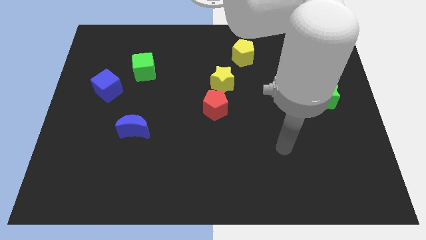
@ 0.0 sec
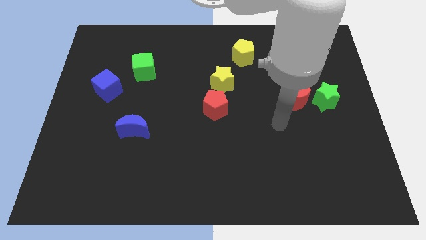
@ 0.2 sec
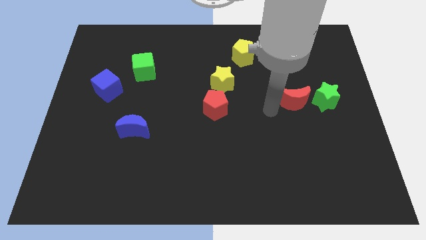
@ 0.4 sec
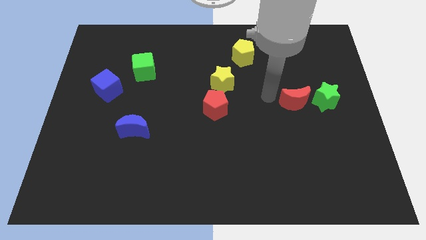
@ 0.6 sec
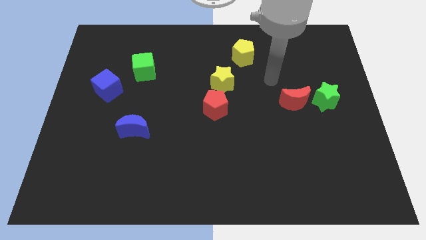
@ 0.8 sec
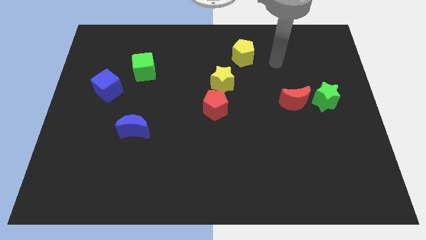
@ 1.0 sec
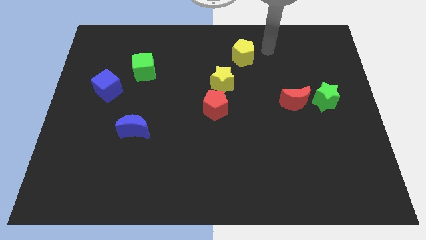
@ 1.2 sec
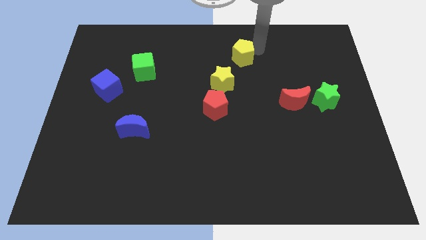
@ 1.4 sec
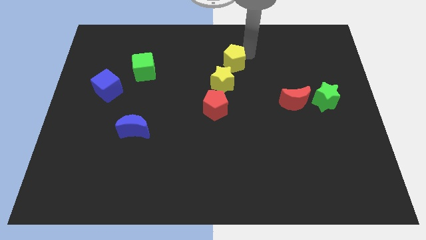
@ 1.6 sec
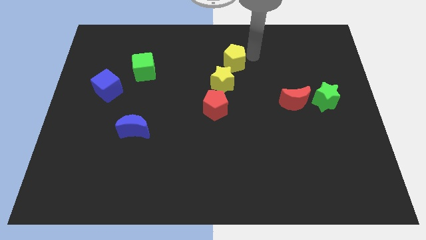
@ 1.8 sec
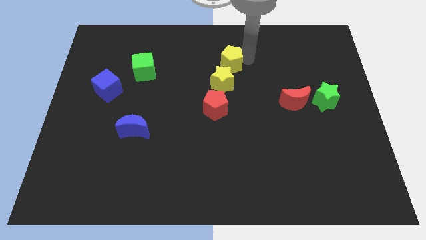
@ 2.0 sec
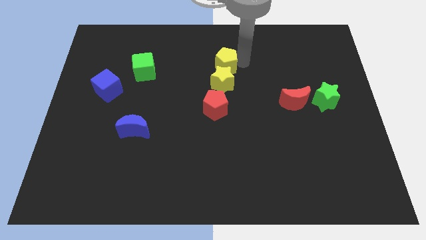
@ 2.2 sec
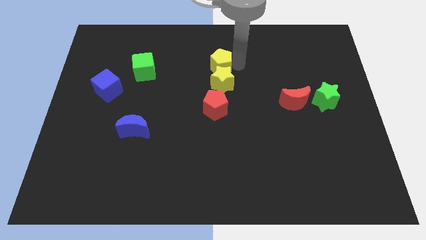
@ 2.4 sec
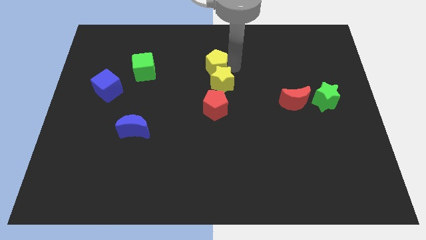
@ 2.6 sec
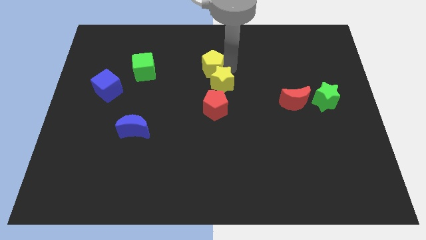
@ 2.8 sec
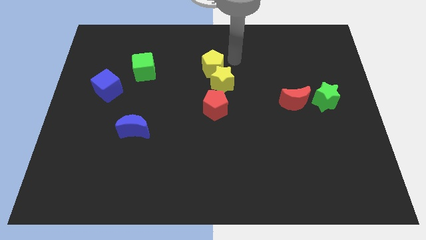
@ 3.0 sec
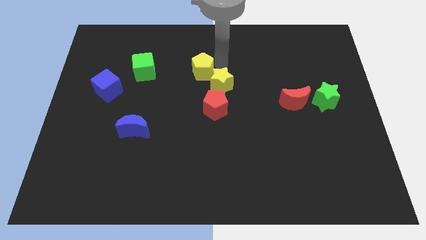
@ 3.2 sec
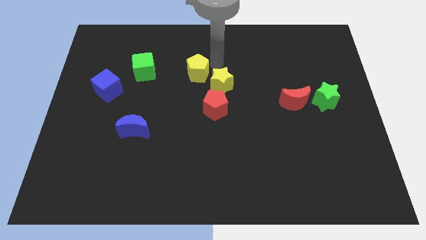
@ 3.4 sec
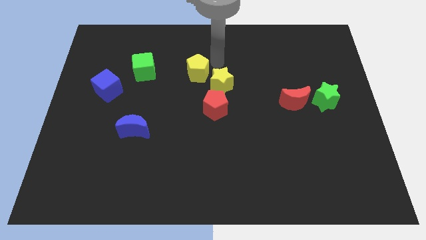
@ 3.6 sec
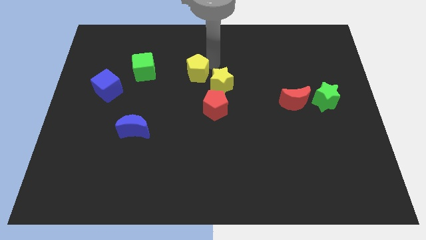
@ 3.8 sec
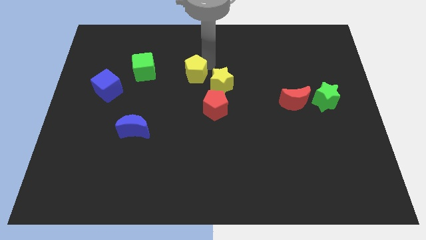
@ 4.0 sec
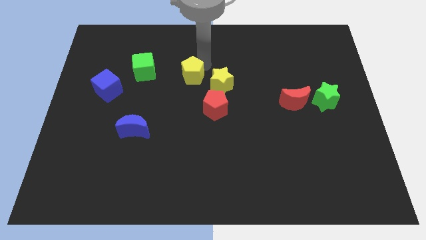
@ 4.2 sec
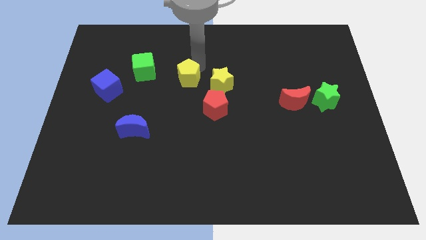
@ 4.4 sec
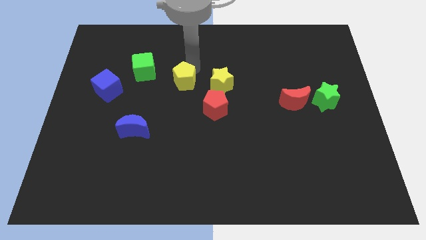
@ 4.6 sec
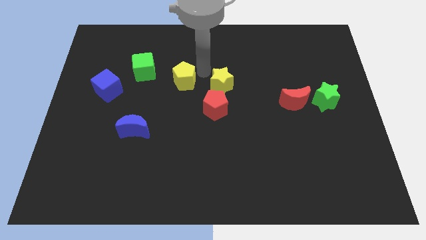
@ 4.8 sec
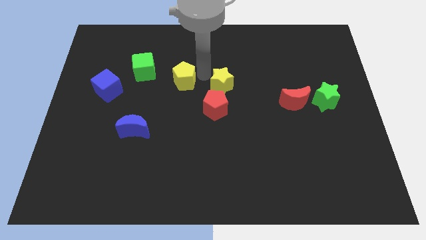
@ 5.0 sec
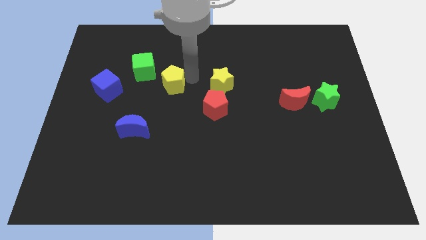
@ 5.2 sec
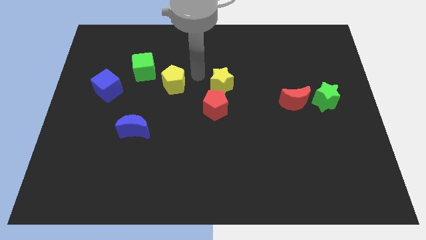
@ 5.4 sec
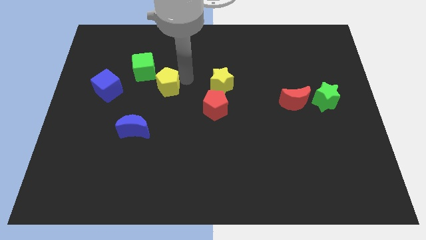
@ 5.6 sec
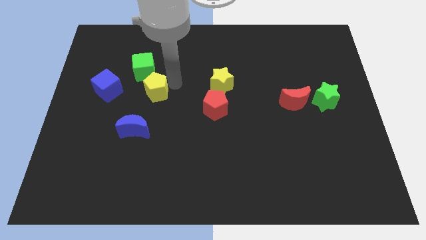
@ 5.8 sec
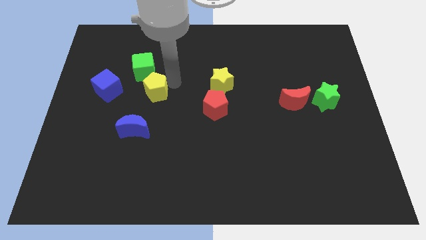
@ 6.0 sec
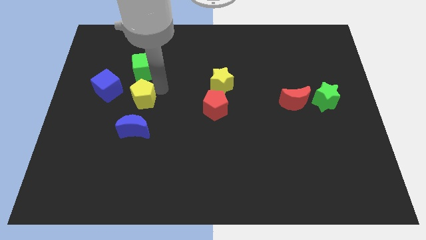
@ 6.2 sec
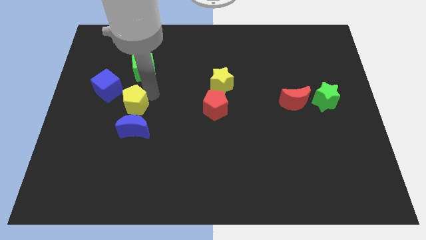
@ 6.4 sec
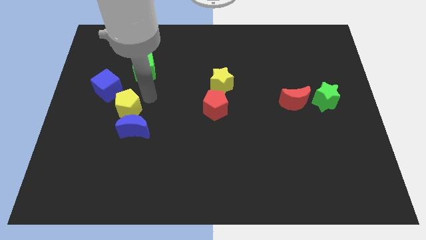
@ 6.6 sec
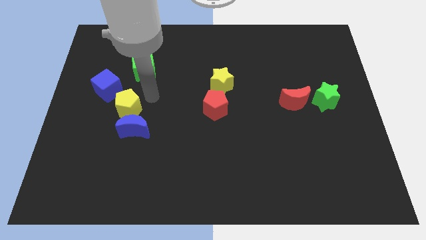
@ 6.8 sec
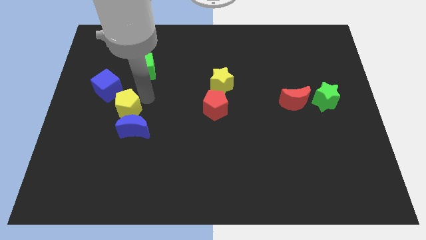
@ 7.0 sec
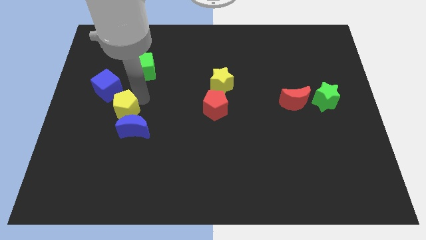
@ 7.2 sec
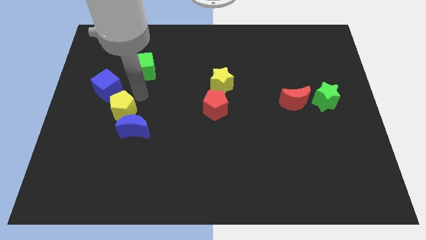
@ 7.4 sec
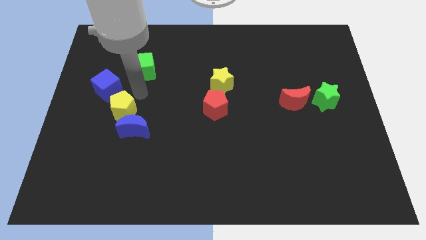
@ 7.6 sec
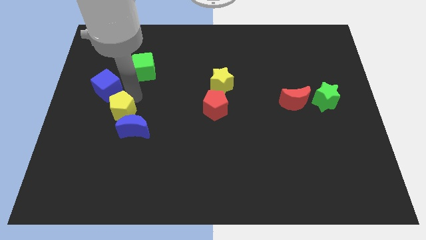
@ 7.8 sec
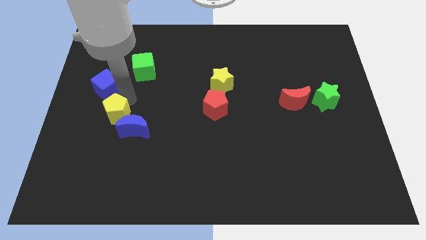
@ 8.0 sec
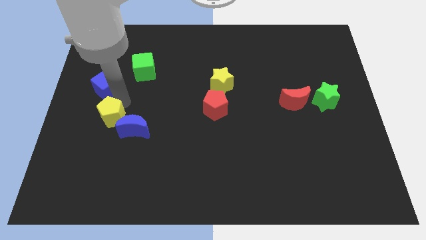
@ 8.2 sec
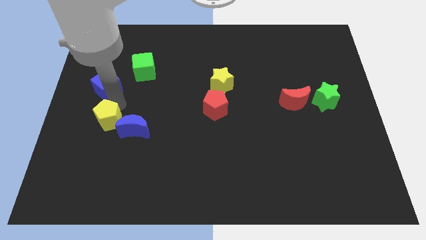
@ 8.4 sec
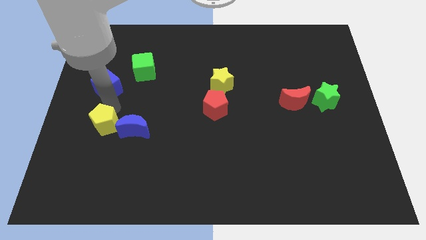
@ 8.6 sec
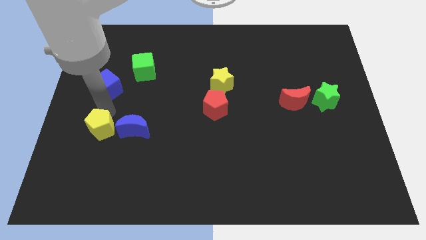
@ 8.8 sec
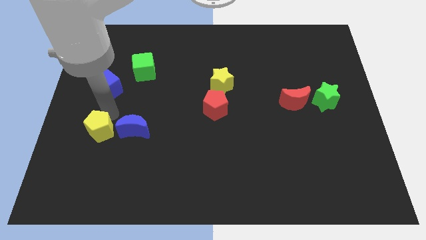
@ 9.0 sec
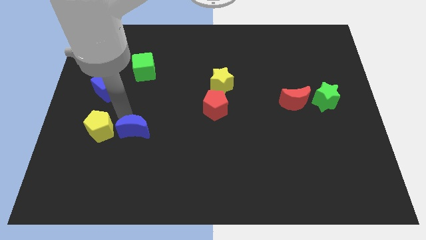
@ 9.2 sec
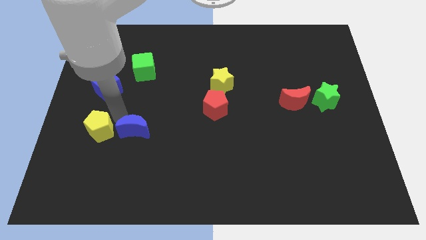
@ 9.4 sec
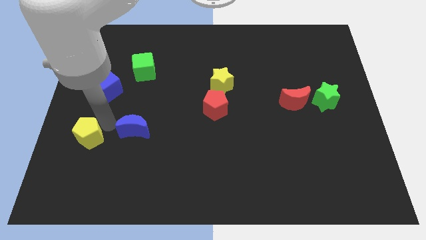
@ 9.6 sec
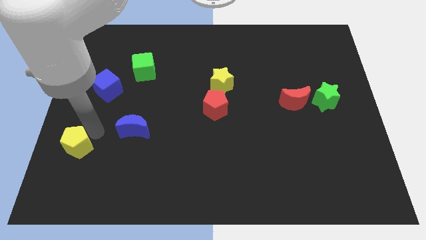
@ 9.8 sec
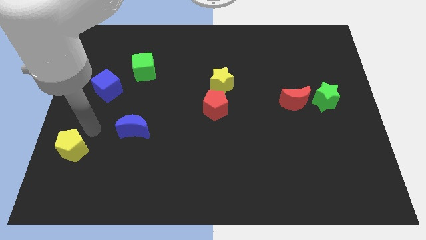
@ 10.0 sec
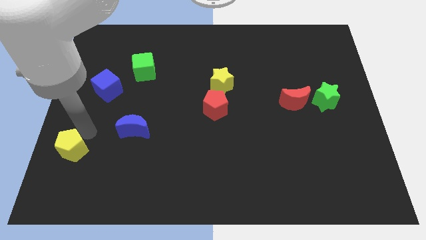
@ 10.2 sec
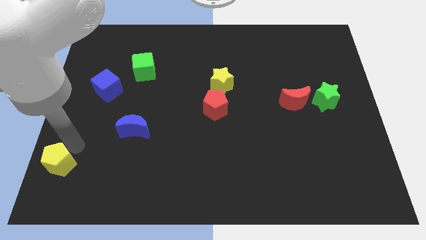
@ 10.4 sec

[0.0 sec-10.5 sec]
put the yellow pentagon to the bottom left of the board

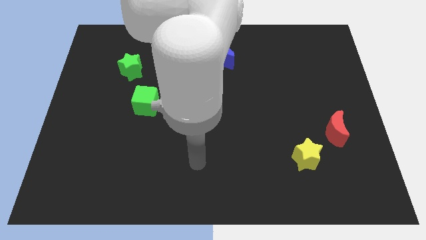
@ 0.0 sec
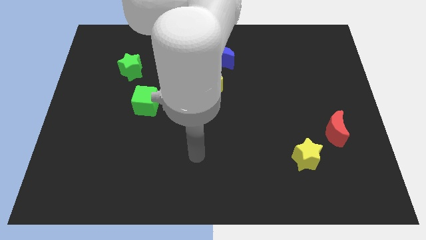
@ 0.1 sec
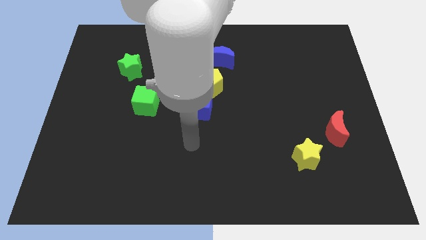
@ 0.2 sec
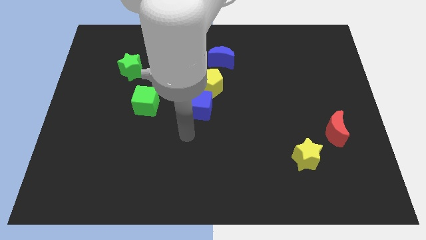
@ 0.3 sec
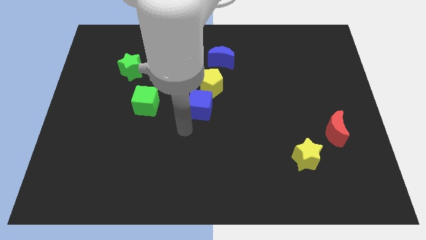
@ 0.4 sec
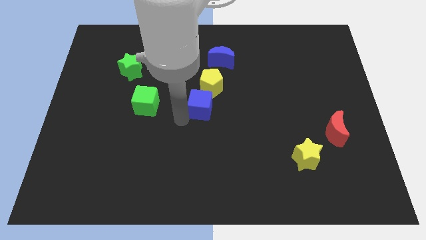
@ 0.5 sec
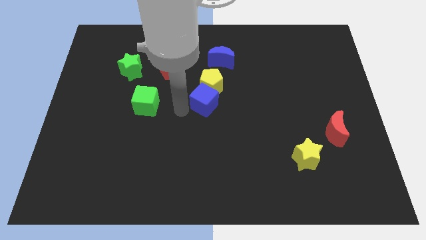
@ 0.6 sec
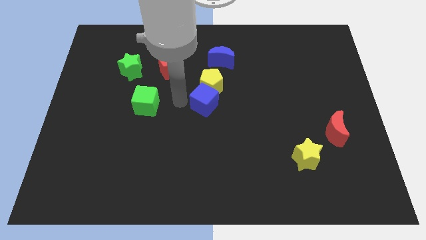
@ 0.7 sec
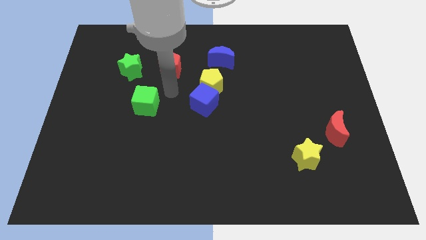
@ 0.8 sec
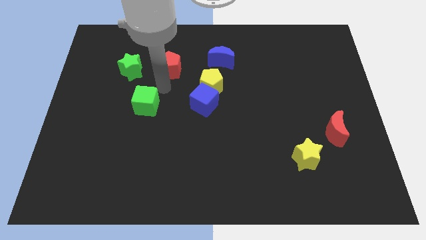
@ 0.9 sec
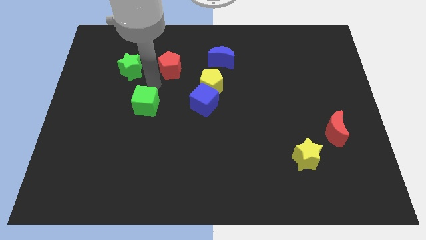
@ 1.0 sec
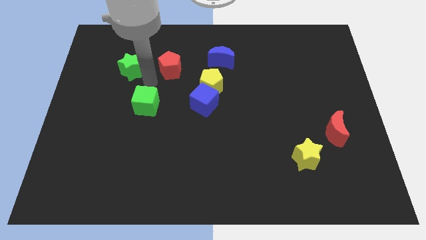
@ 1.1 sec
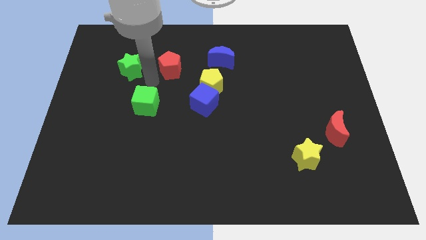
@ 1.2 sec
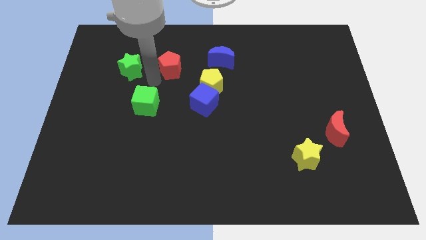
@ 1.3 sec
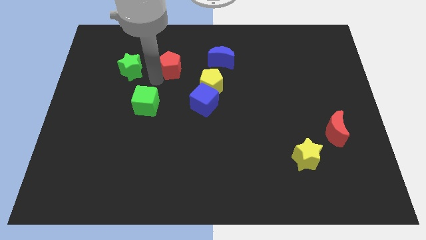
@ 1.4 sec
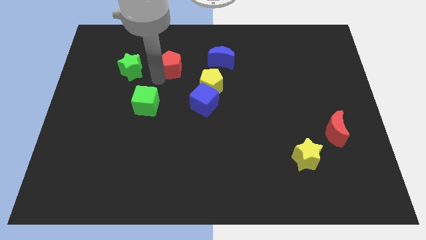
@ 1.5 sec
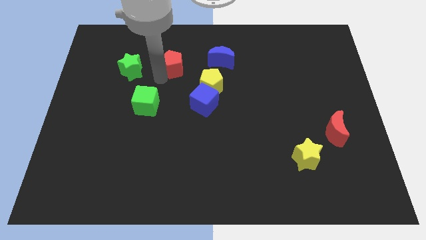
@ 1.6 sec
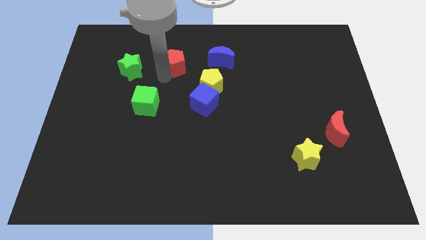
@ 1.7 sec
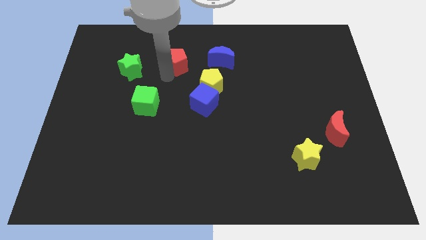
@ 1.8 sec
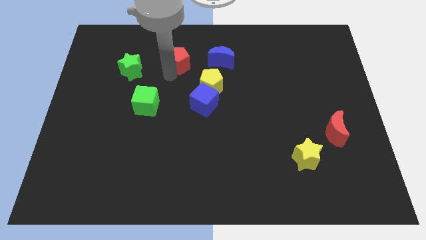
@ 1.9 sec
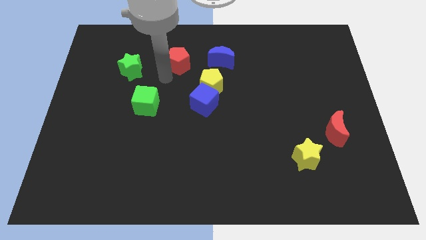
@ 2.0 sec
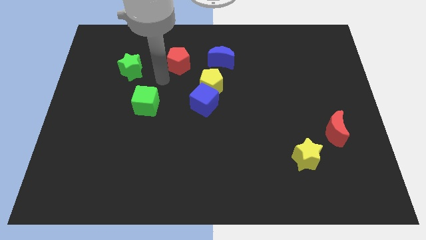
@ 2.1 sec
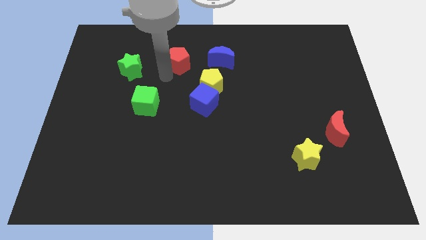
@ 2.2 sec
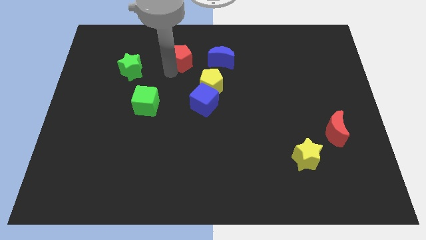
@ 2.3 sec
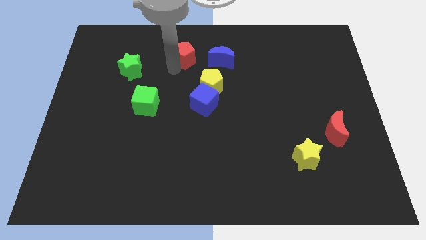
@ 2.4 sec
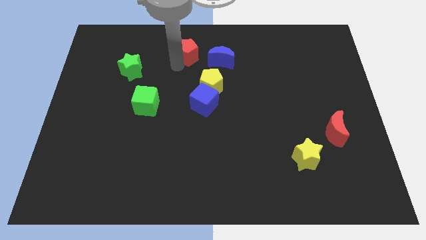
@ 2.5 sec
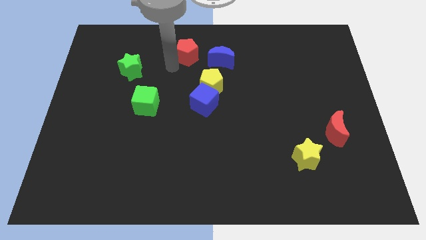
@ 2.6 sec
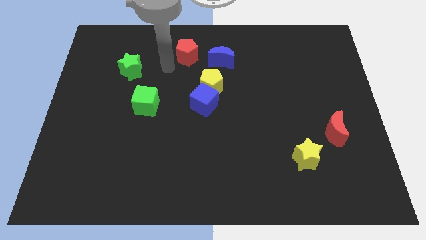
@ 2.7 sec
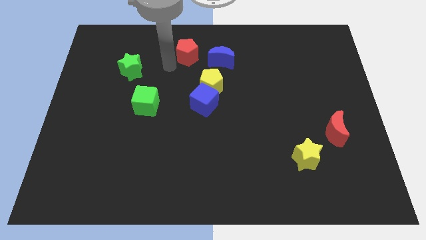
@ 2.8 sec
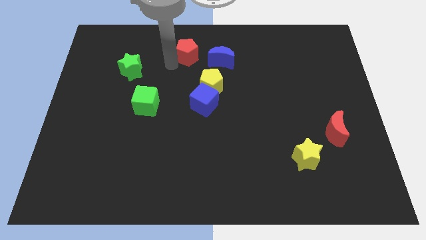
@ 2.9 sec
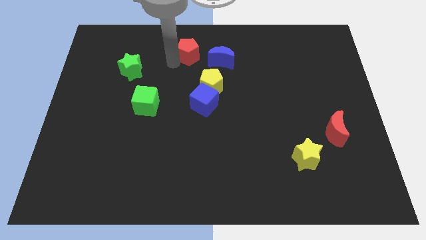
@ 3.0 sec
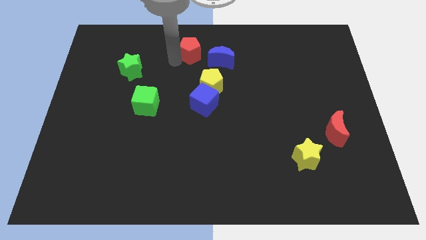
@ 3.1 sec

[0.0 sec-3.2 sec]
slide the red pentagon to the top side
